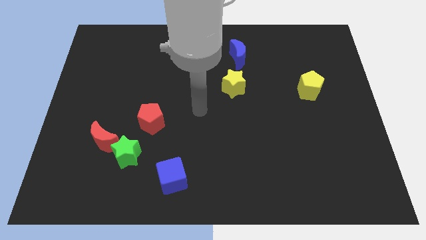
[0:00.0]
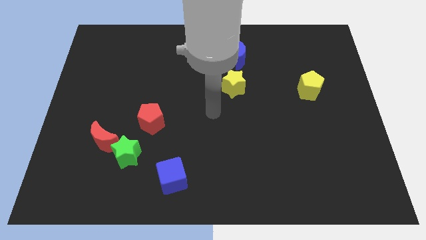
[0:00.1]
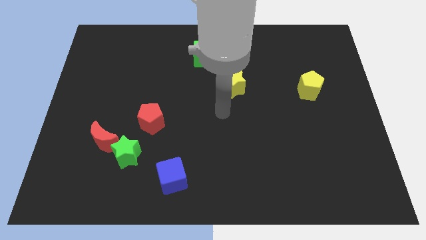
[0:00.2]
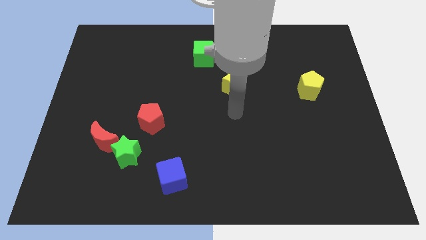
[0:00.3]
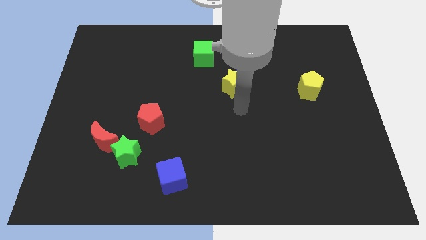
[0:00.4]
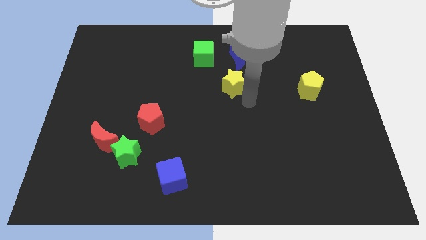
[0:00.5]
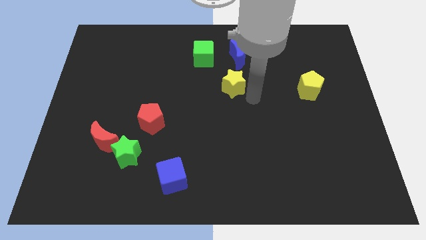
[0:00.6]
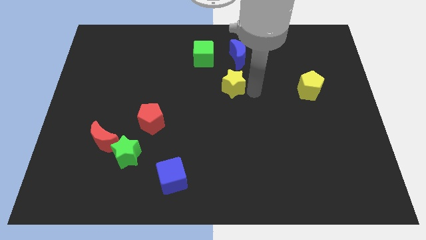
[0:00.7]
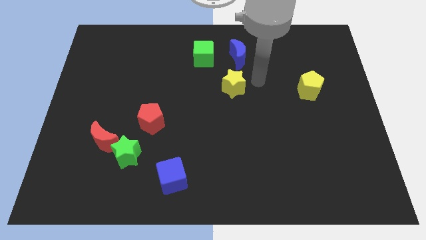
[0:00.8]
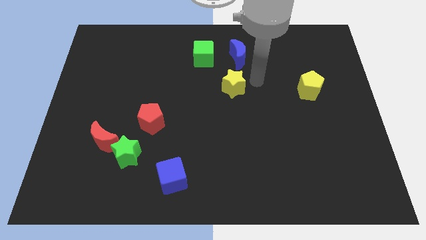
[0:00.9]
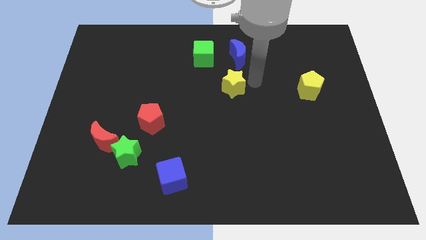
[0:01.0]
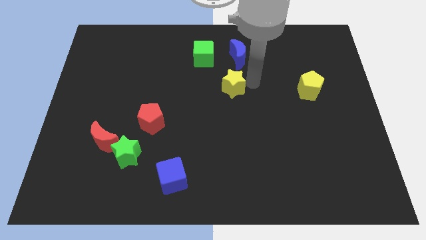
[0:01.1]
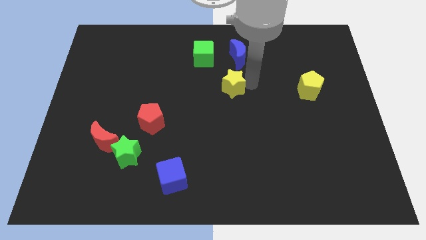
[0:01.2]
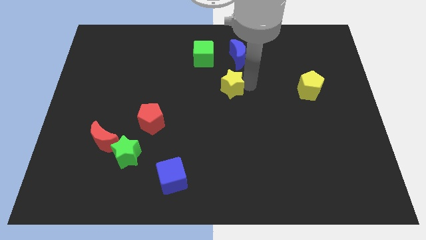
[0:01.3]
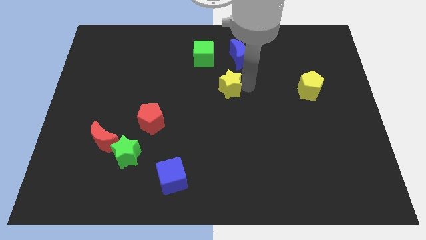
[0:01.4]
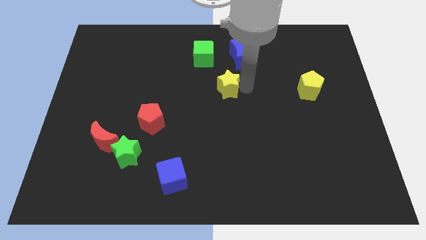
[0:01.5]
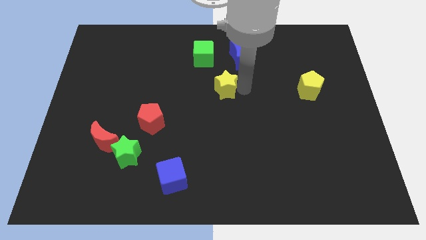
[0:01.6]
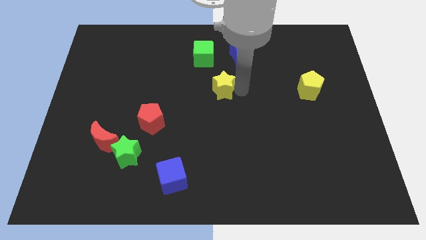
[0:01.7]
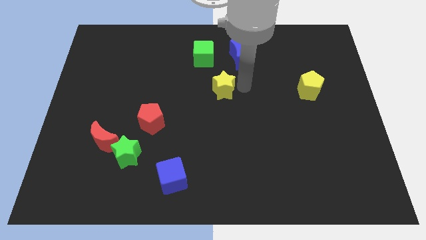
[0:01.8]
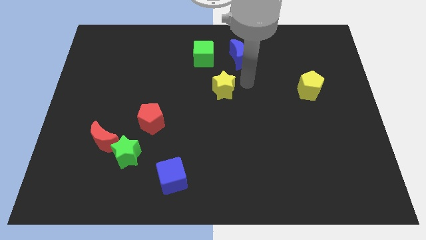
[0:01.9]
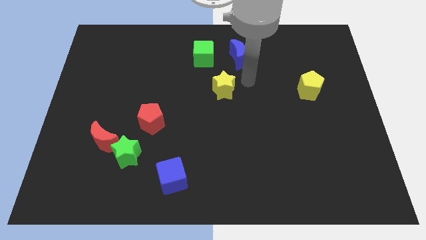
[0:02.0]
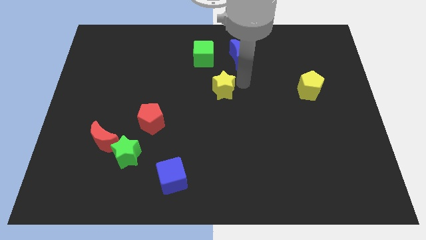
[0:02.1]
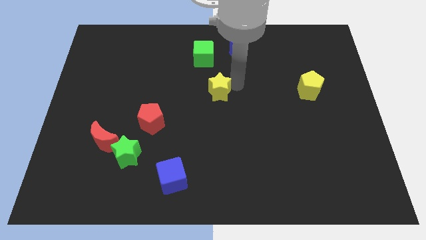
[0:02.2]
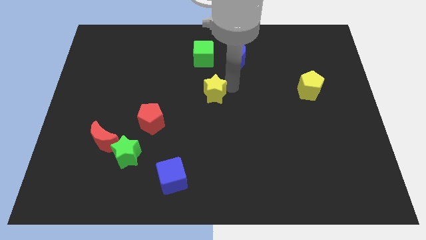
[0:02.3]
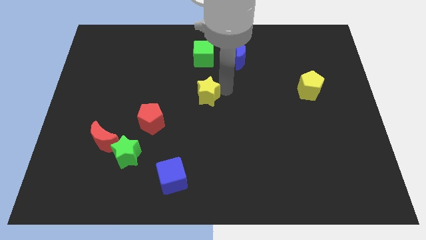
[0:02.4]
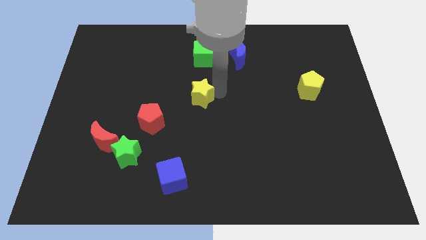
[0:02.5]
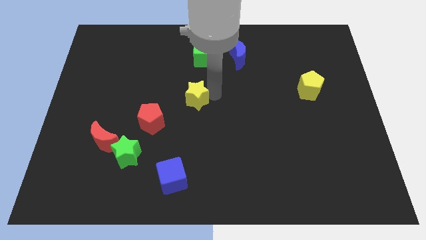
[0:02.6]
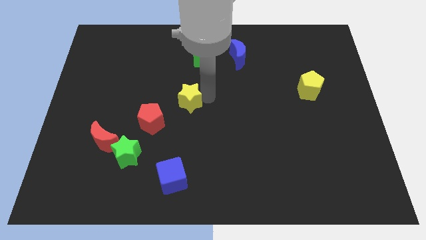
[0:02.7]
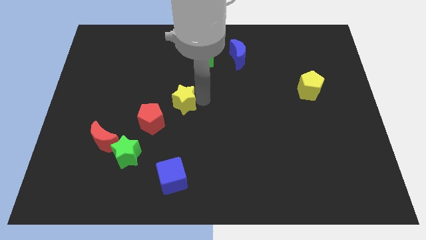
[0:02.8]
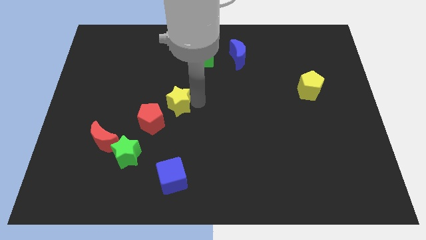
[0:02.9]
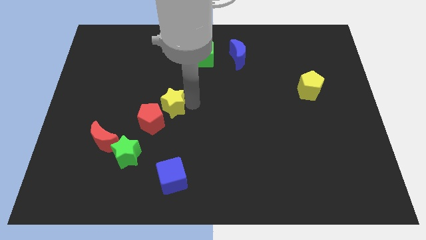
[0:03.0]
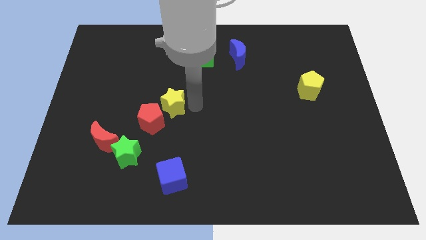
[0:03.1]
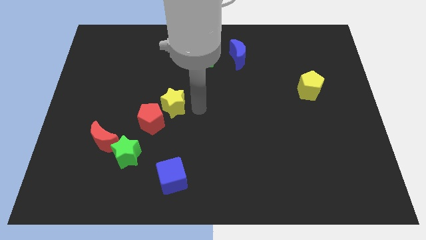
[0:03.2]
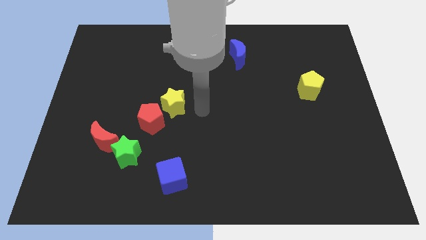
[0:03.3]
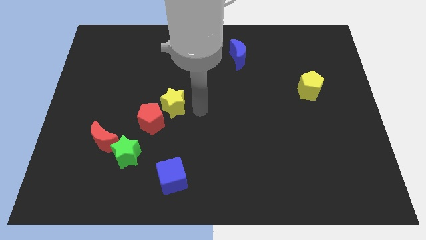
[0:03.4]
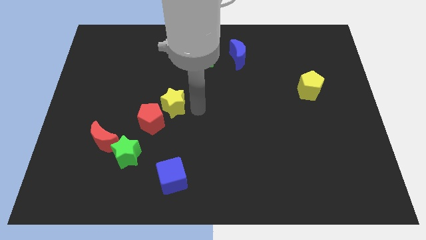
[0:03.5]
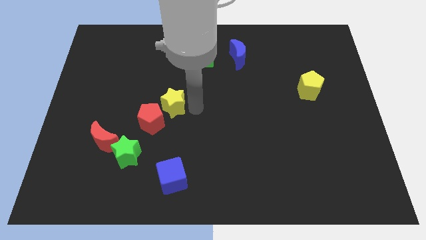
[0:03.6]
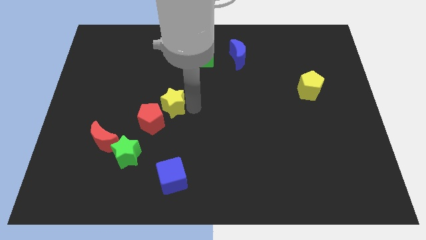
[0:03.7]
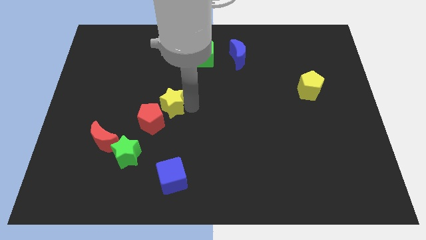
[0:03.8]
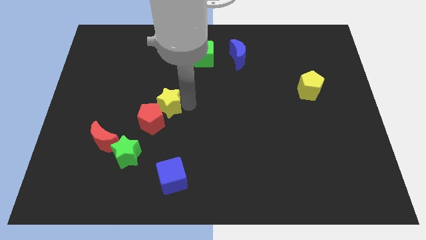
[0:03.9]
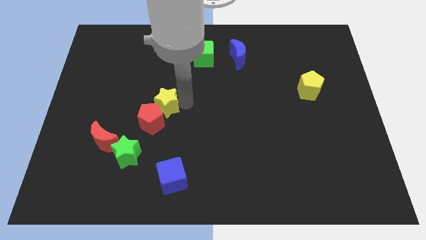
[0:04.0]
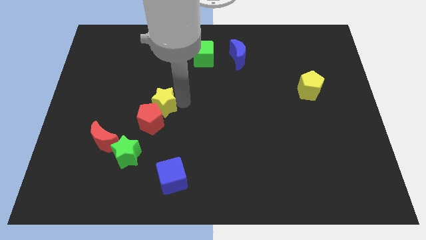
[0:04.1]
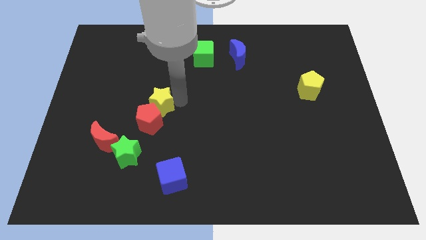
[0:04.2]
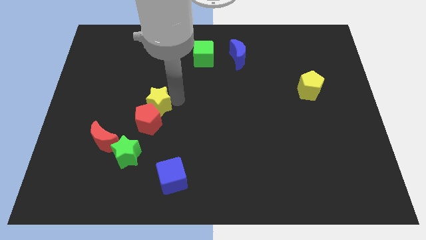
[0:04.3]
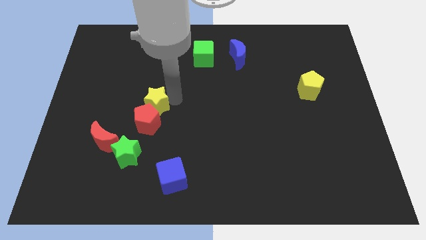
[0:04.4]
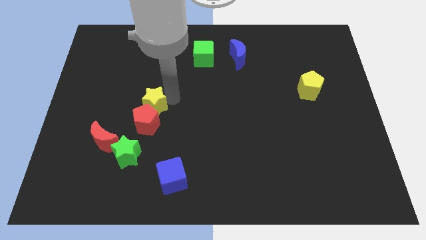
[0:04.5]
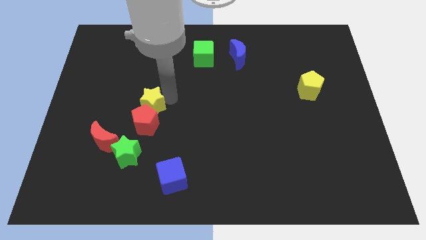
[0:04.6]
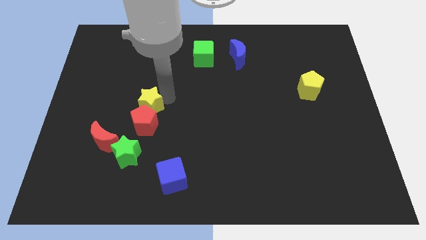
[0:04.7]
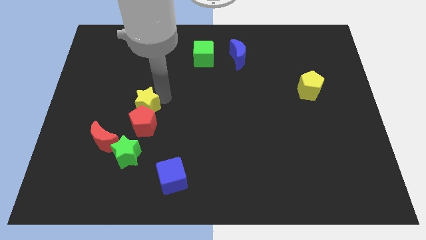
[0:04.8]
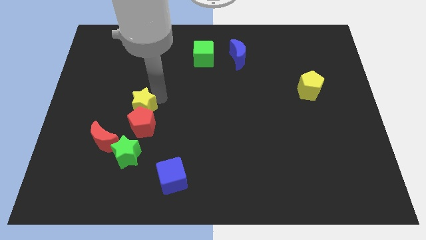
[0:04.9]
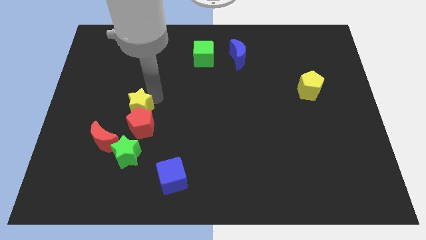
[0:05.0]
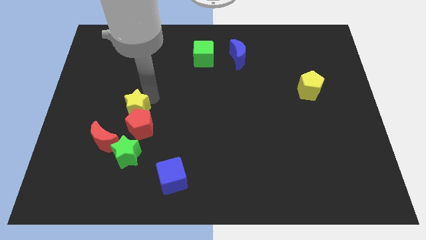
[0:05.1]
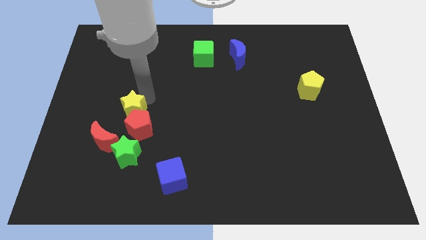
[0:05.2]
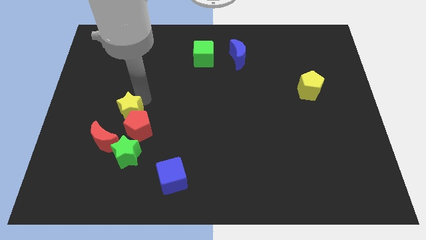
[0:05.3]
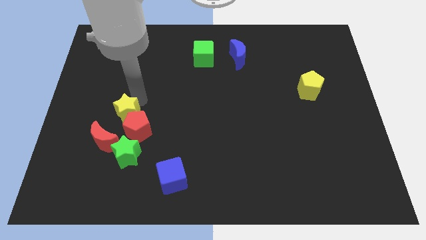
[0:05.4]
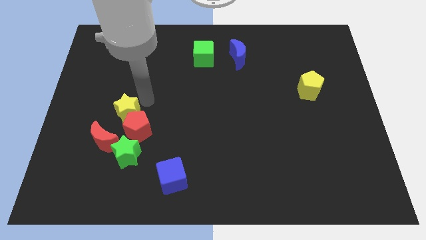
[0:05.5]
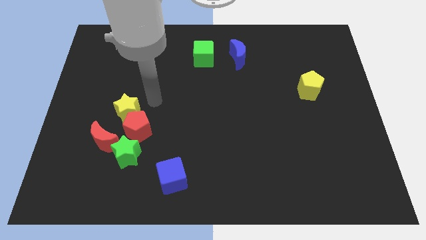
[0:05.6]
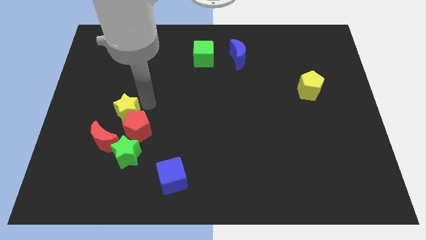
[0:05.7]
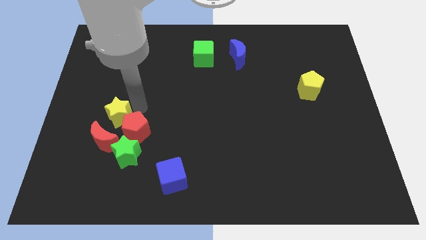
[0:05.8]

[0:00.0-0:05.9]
move the yellow star to the left side of the red pentagon
